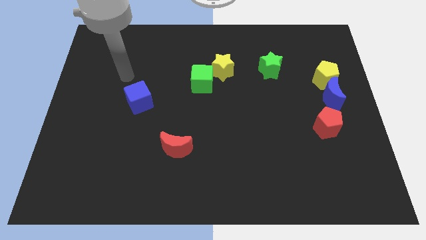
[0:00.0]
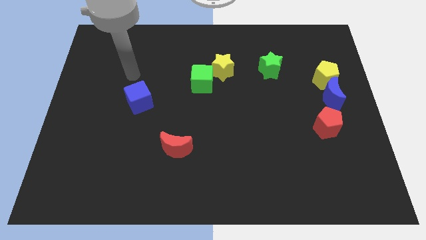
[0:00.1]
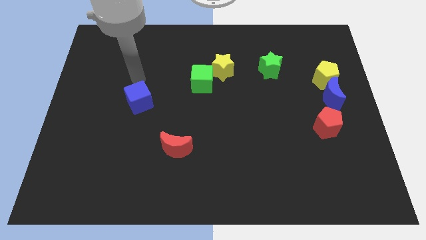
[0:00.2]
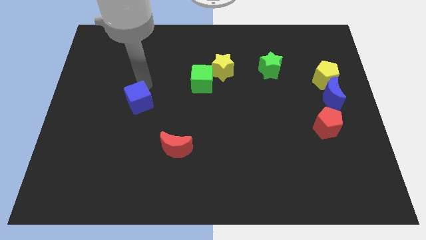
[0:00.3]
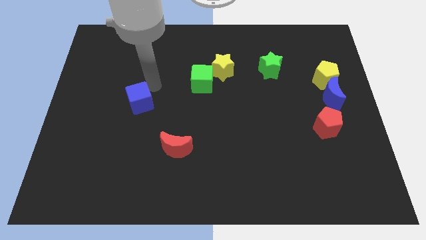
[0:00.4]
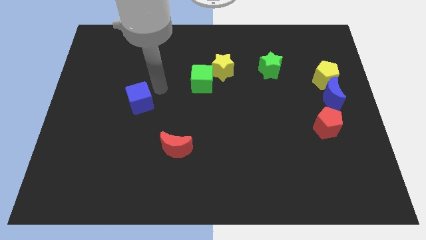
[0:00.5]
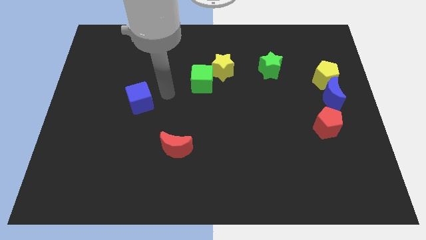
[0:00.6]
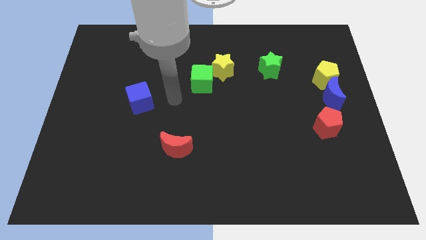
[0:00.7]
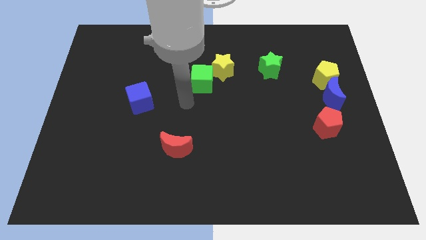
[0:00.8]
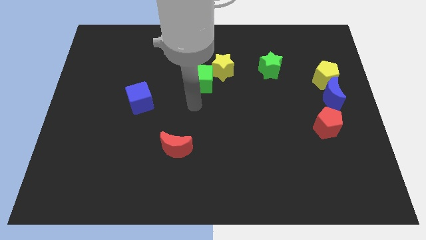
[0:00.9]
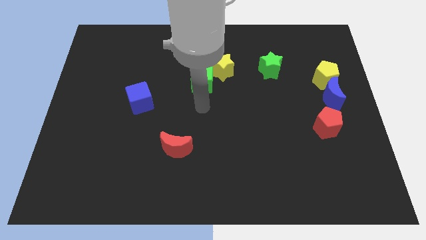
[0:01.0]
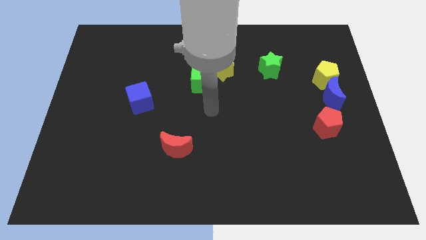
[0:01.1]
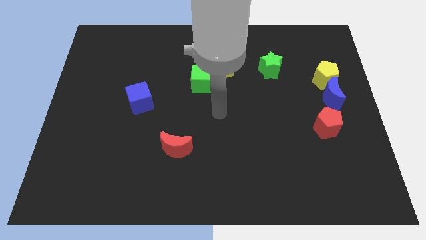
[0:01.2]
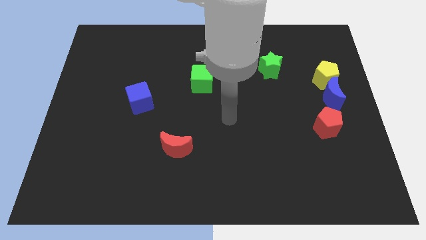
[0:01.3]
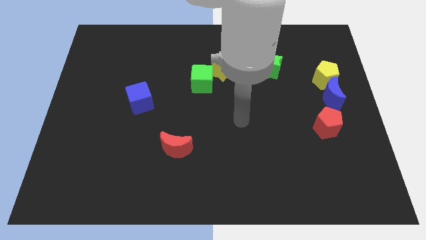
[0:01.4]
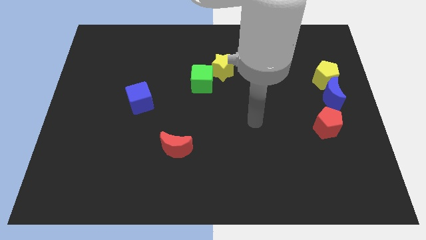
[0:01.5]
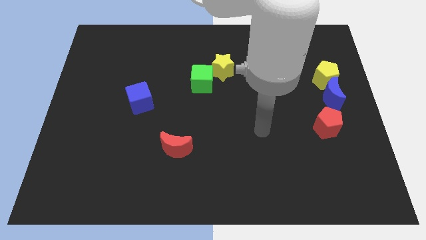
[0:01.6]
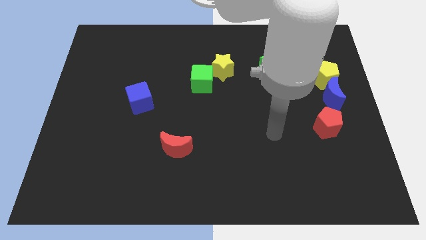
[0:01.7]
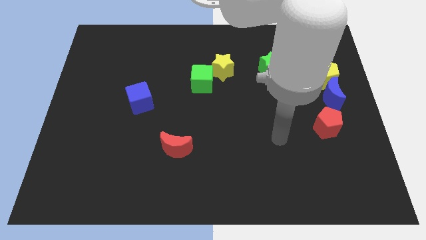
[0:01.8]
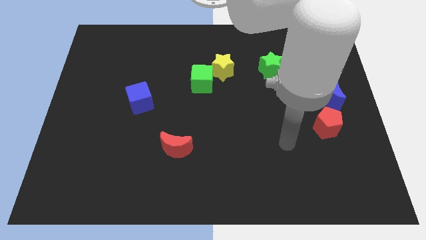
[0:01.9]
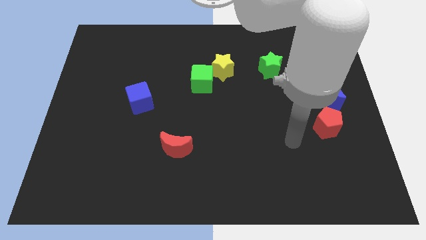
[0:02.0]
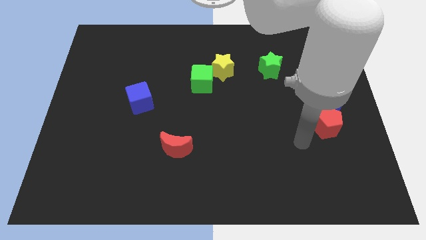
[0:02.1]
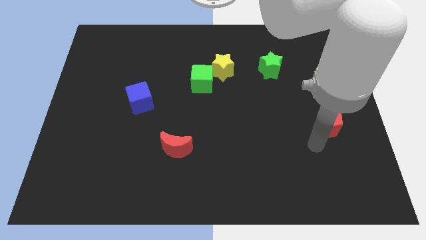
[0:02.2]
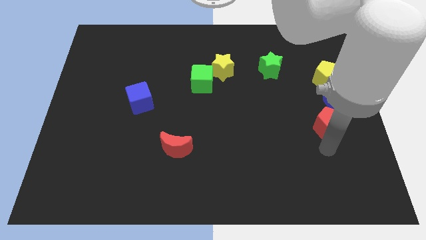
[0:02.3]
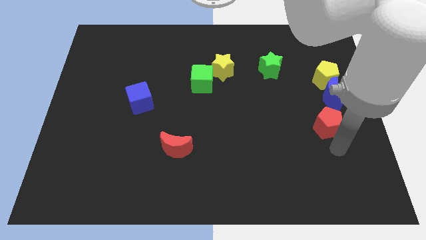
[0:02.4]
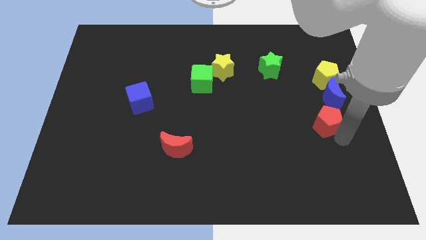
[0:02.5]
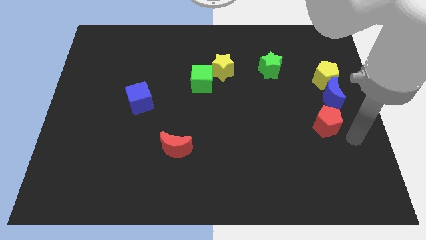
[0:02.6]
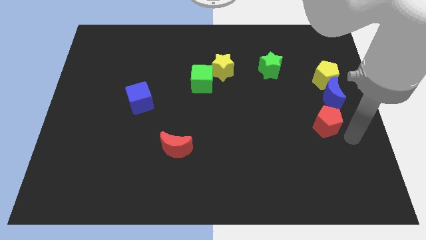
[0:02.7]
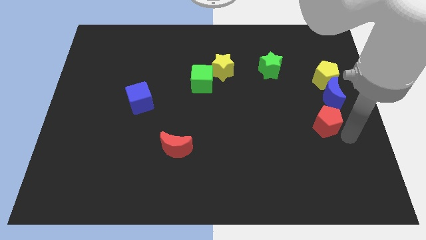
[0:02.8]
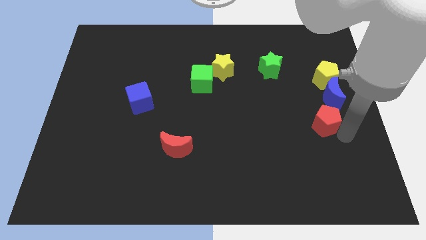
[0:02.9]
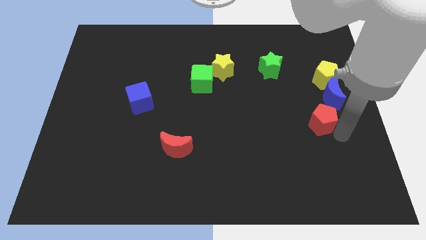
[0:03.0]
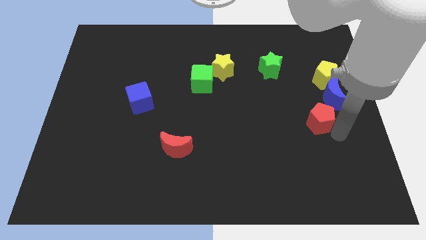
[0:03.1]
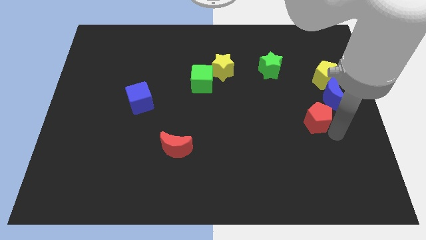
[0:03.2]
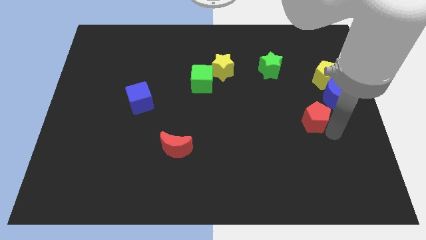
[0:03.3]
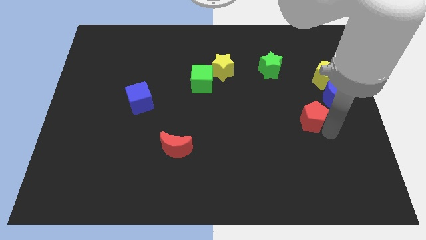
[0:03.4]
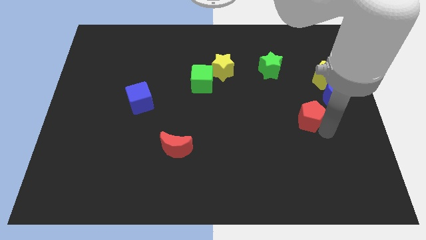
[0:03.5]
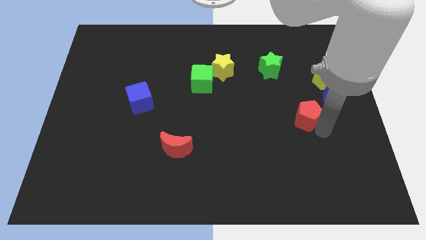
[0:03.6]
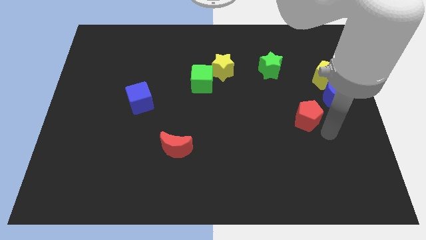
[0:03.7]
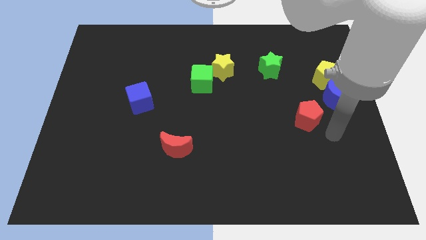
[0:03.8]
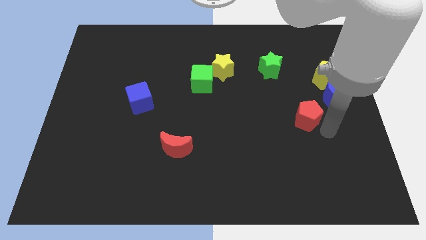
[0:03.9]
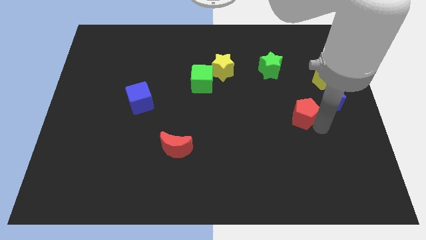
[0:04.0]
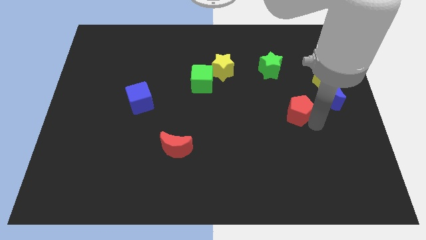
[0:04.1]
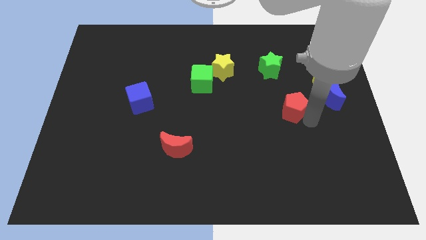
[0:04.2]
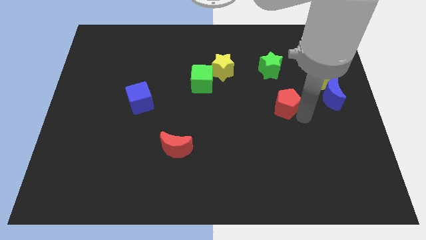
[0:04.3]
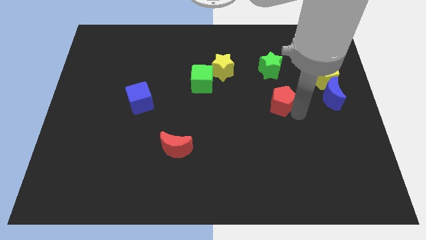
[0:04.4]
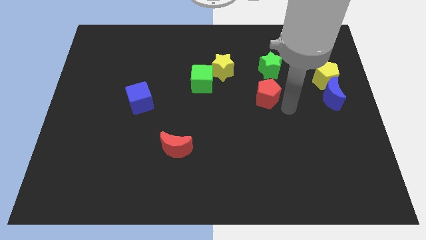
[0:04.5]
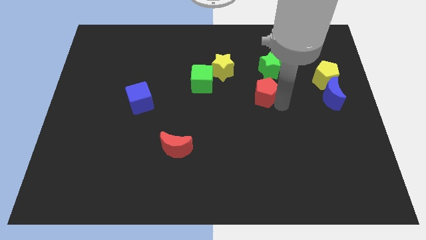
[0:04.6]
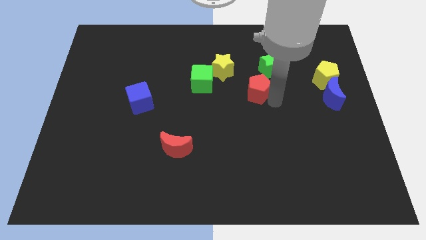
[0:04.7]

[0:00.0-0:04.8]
push the red pentagon to the right side of the green cube

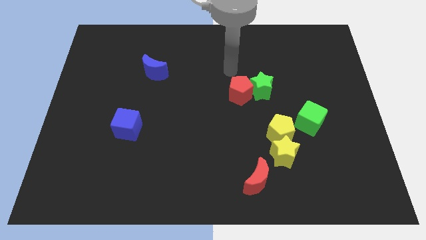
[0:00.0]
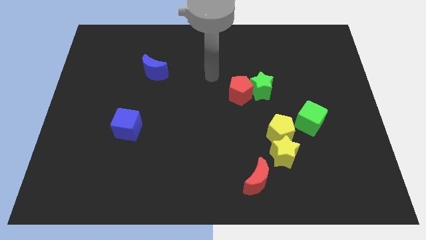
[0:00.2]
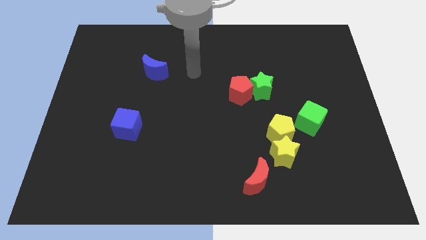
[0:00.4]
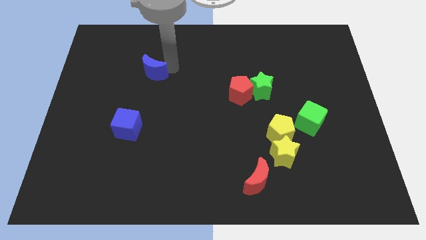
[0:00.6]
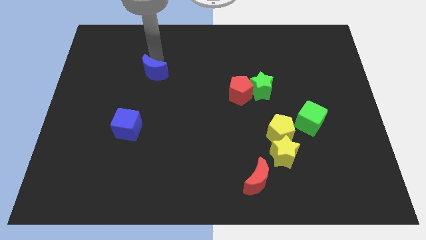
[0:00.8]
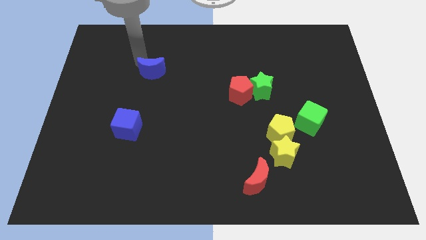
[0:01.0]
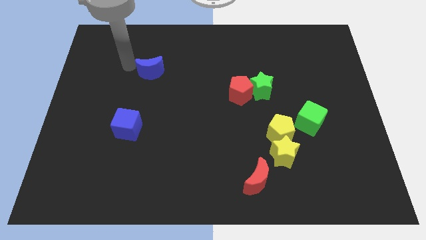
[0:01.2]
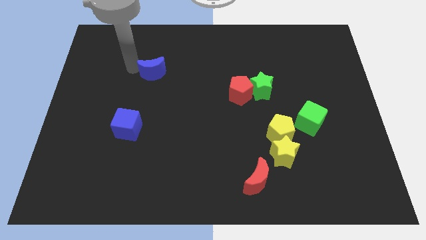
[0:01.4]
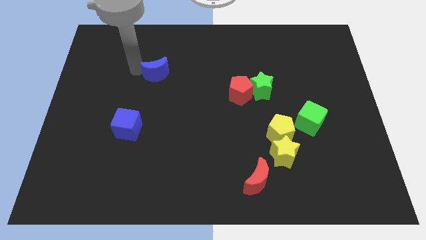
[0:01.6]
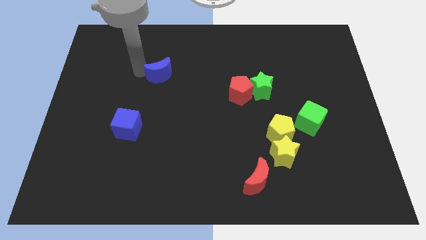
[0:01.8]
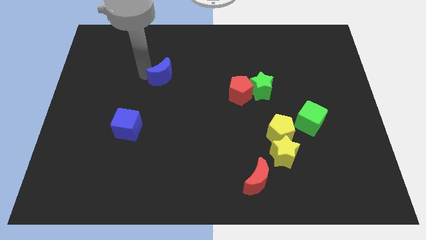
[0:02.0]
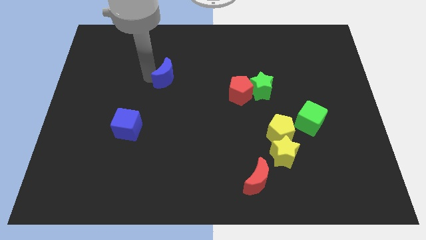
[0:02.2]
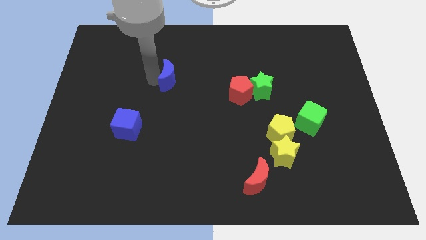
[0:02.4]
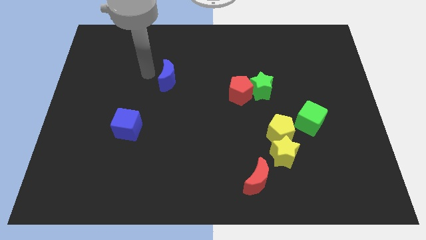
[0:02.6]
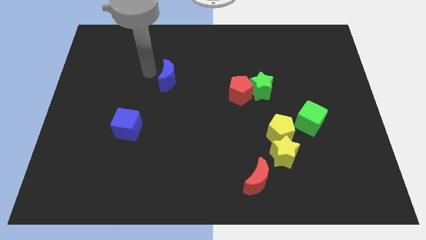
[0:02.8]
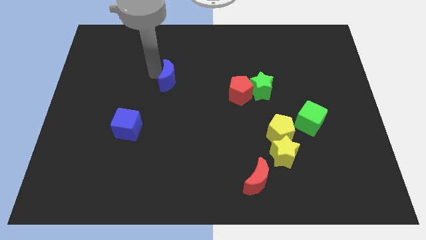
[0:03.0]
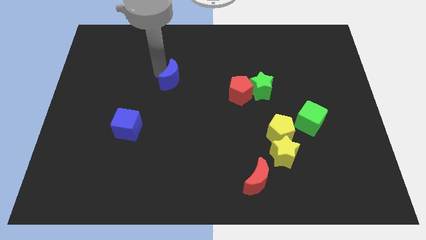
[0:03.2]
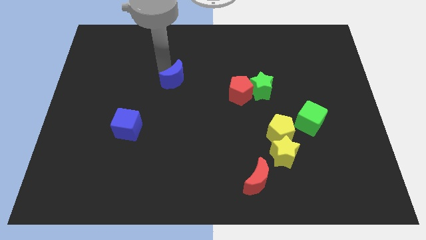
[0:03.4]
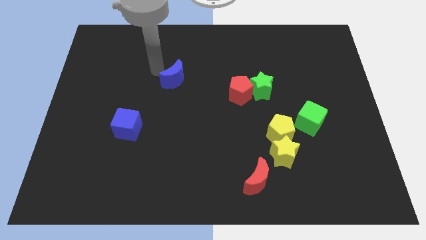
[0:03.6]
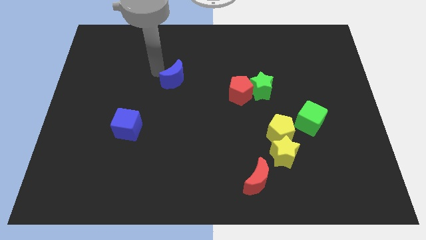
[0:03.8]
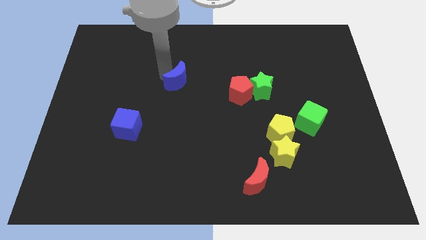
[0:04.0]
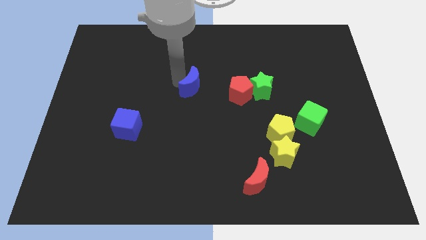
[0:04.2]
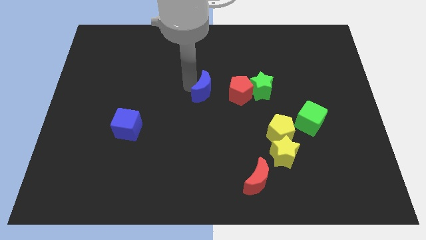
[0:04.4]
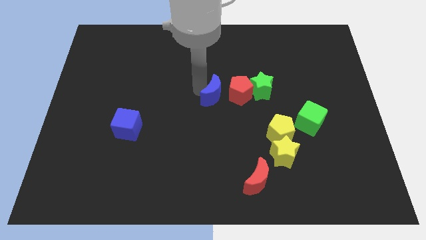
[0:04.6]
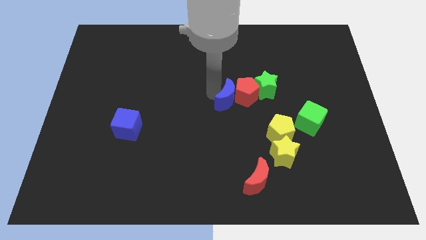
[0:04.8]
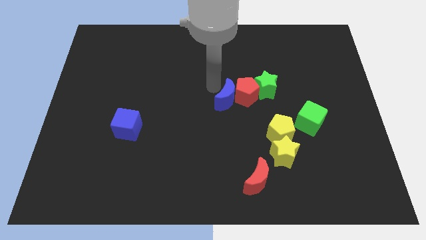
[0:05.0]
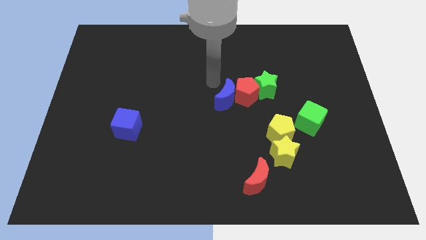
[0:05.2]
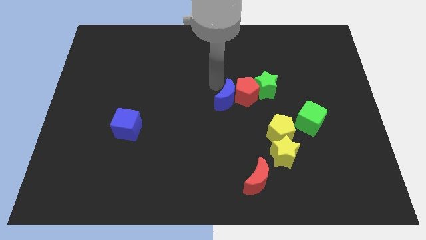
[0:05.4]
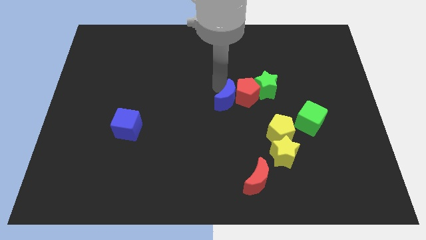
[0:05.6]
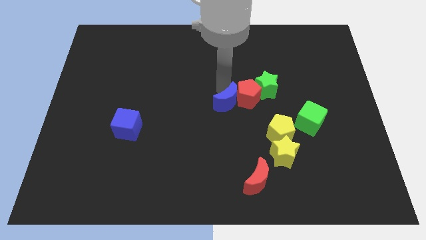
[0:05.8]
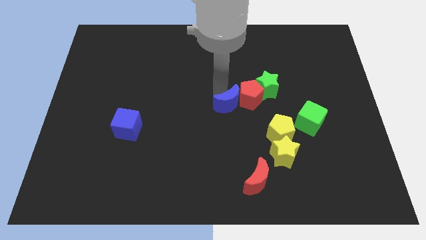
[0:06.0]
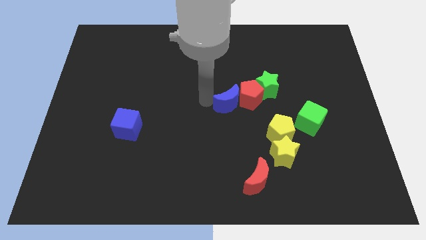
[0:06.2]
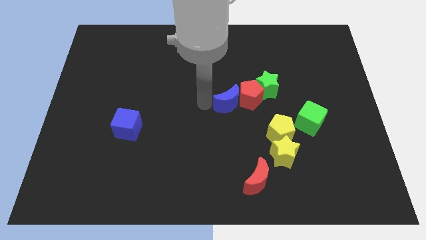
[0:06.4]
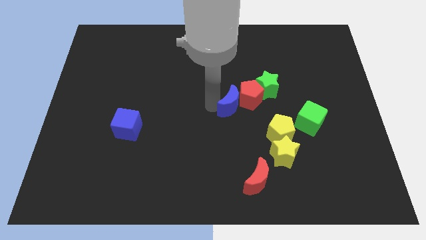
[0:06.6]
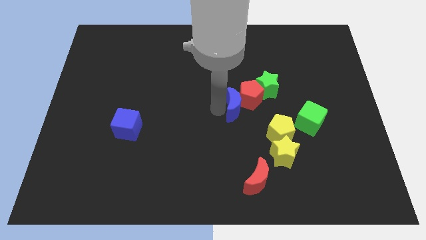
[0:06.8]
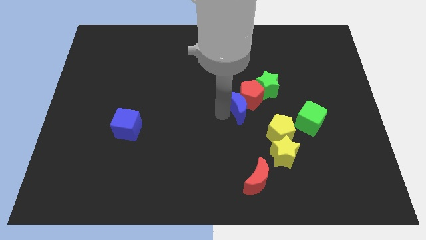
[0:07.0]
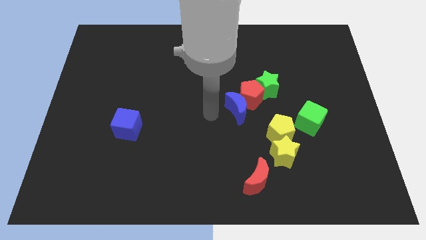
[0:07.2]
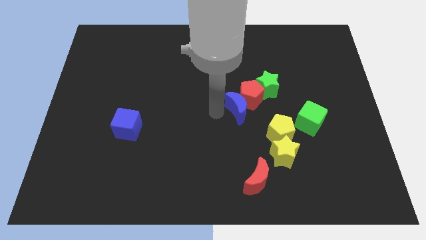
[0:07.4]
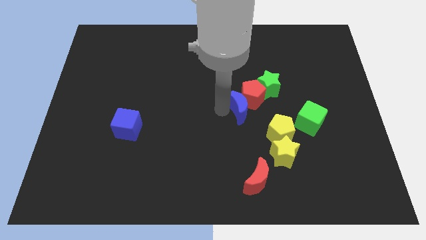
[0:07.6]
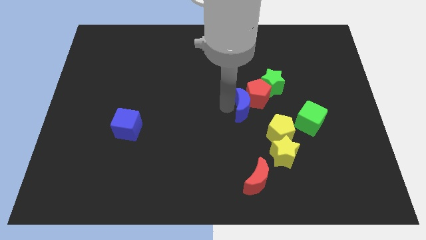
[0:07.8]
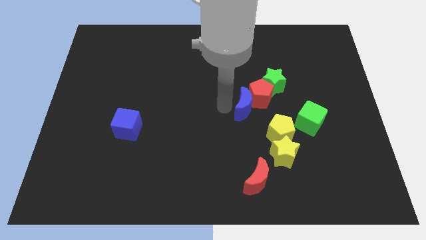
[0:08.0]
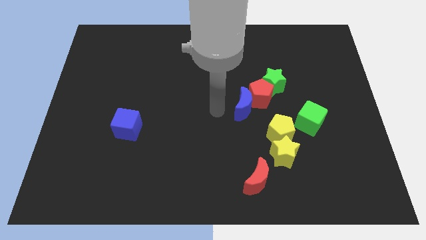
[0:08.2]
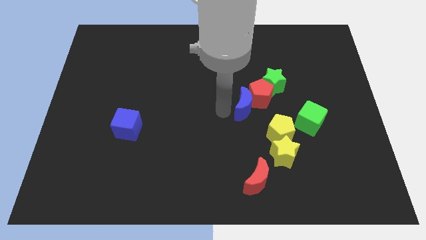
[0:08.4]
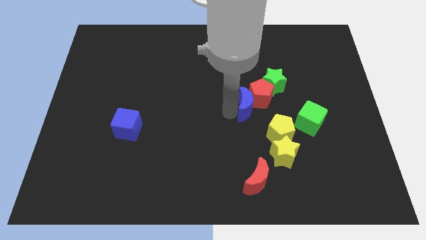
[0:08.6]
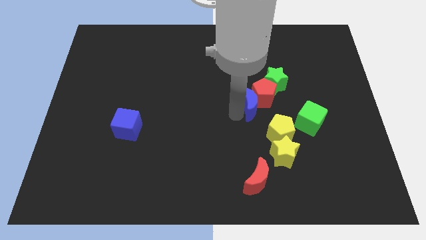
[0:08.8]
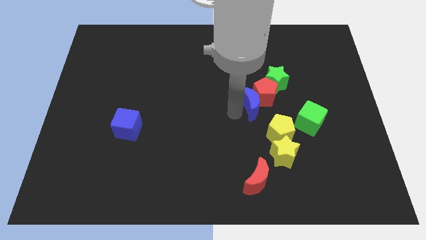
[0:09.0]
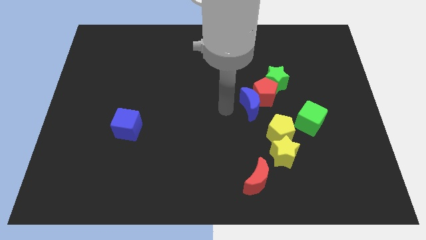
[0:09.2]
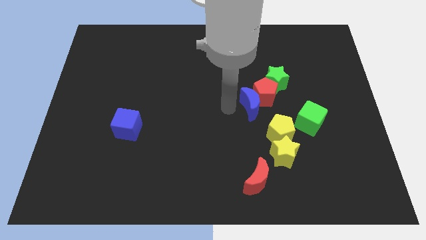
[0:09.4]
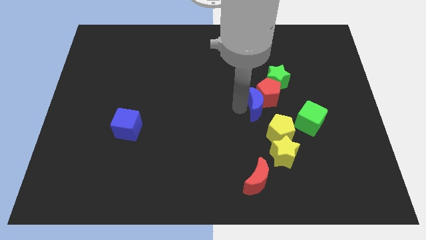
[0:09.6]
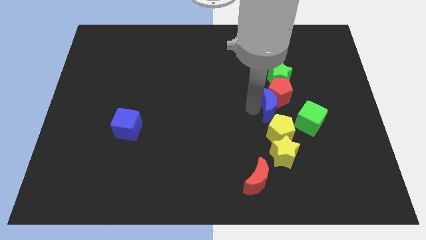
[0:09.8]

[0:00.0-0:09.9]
slide the blue moon to the top left side of the green cube
